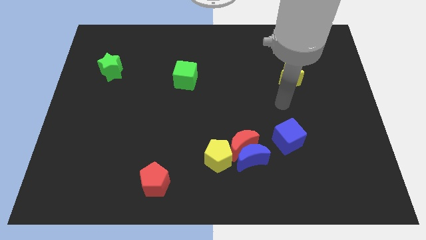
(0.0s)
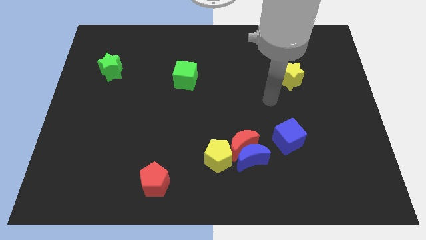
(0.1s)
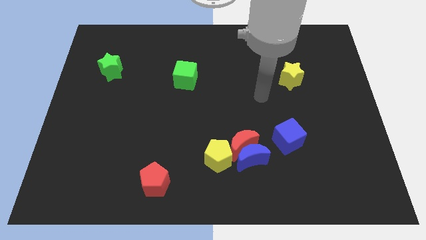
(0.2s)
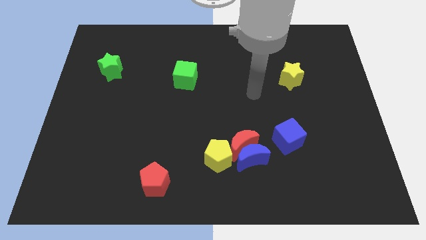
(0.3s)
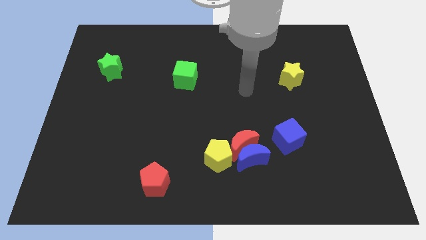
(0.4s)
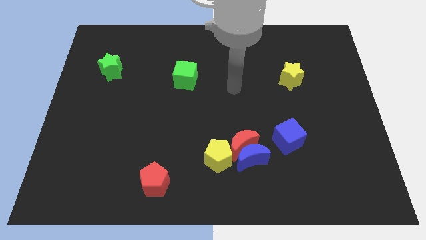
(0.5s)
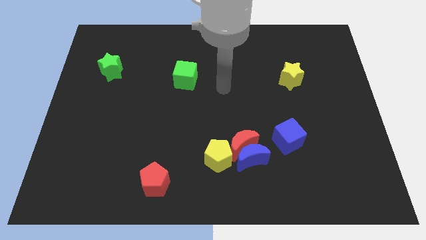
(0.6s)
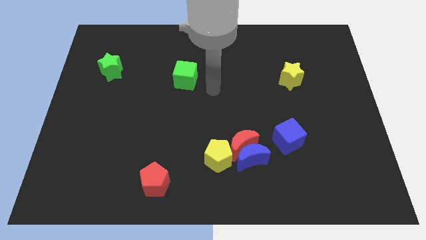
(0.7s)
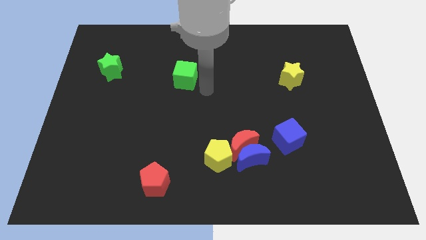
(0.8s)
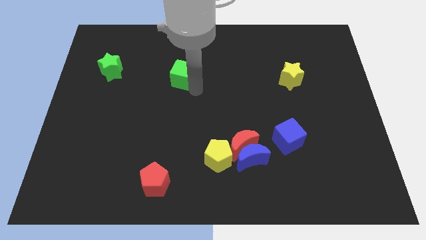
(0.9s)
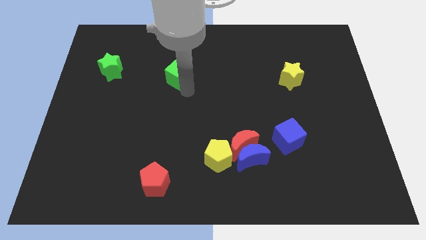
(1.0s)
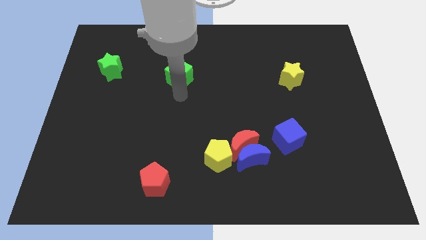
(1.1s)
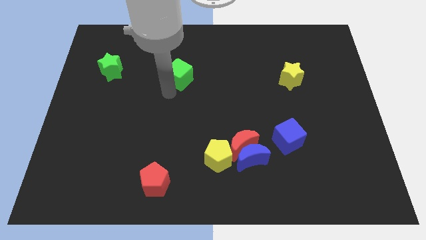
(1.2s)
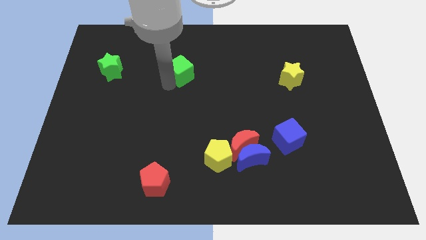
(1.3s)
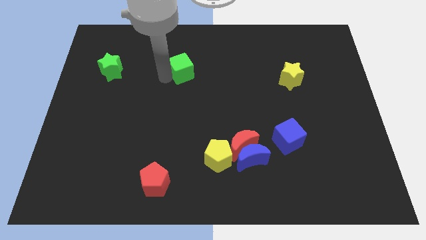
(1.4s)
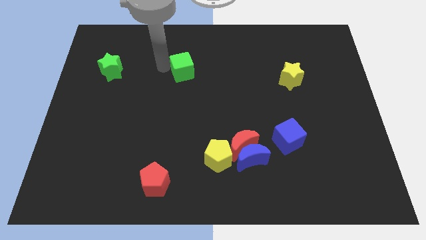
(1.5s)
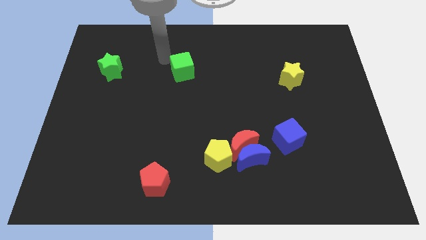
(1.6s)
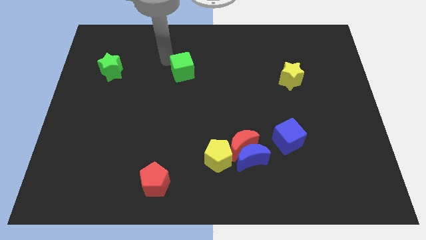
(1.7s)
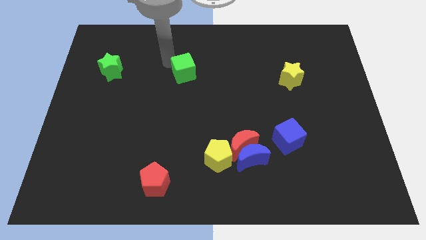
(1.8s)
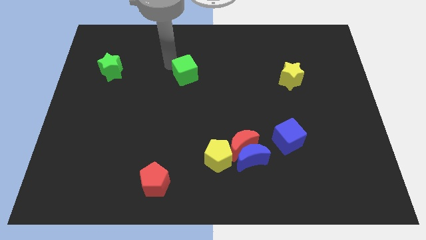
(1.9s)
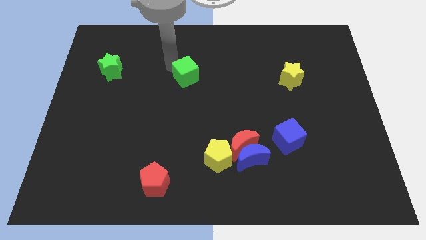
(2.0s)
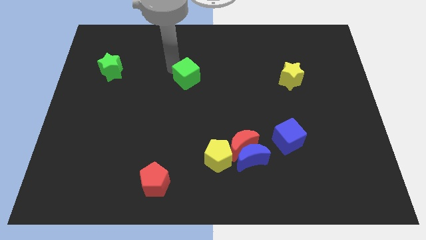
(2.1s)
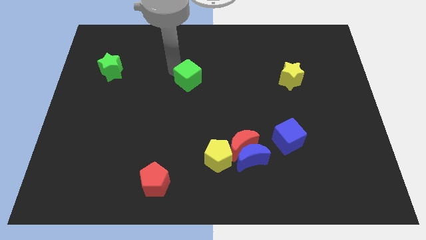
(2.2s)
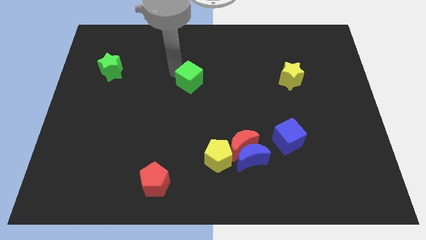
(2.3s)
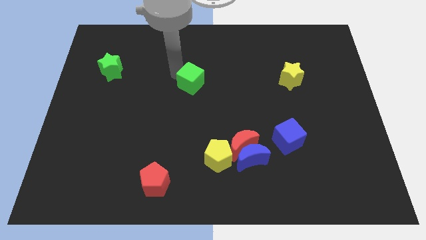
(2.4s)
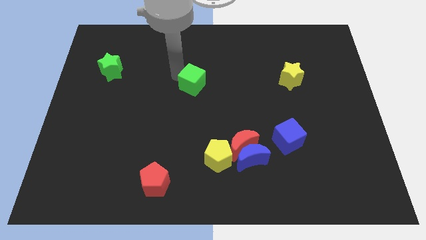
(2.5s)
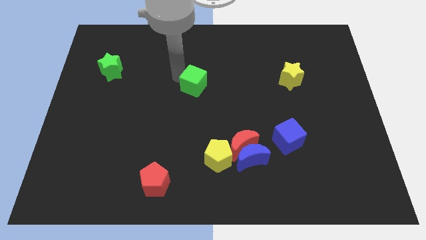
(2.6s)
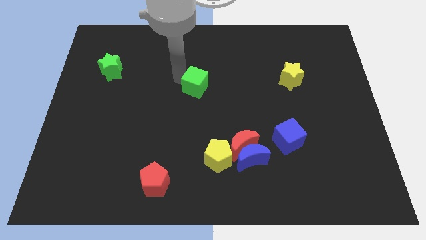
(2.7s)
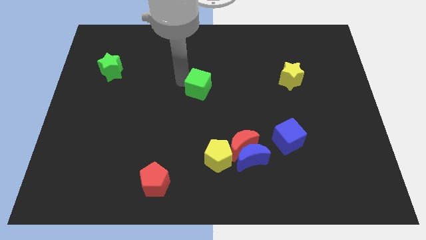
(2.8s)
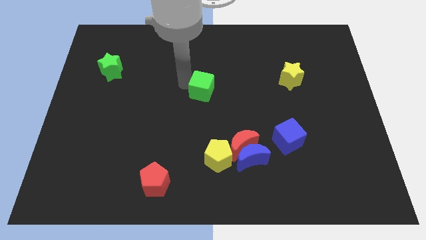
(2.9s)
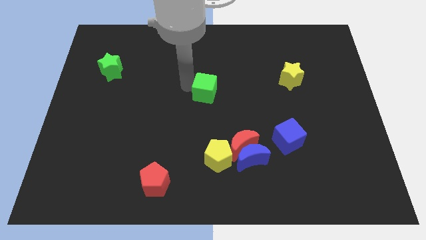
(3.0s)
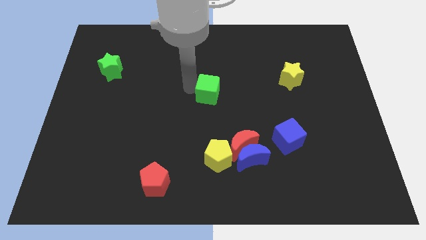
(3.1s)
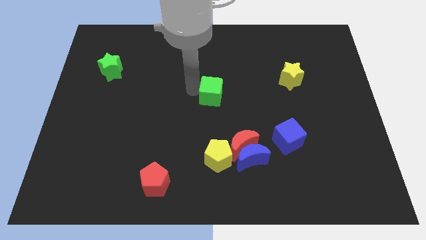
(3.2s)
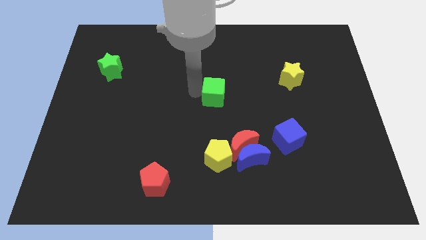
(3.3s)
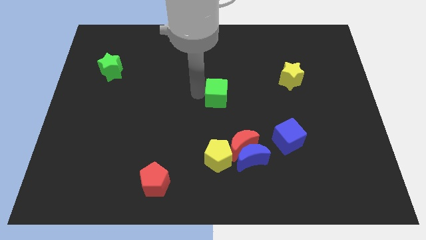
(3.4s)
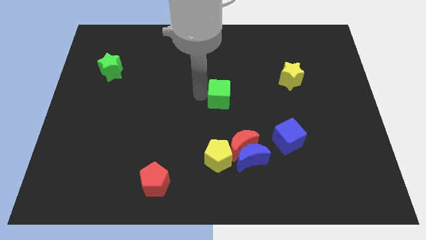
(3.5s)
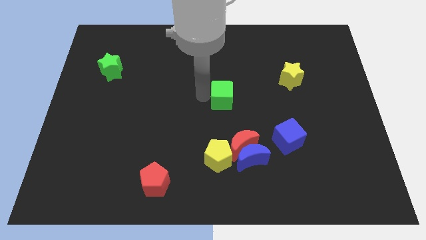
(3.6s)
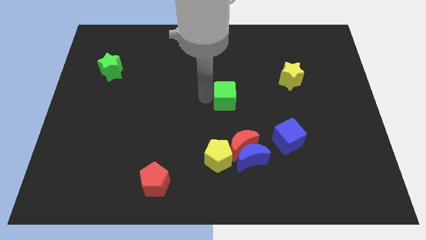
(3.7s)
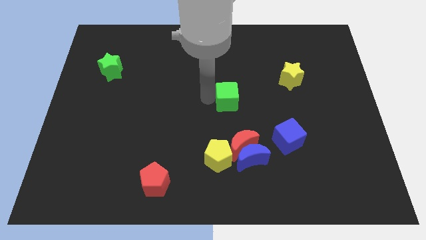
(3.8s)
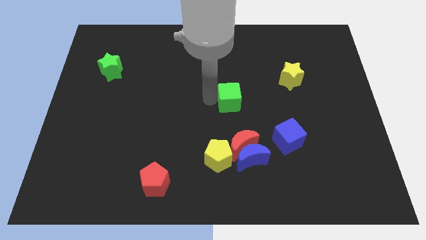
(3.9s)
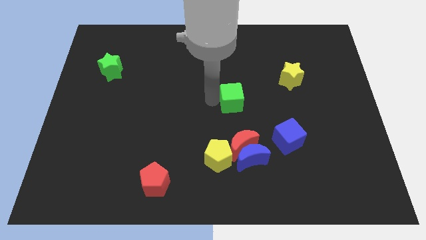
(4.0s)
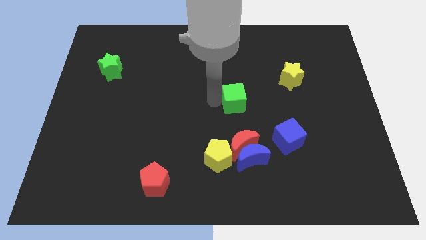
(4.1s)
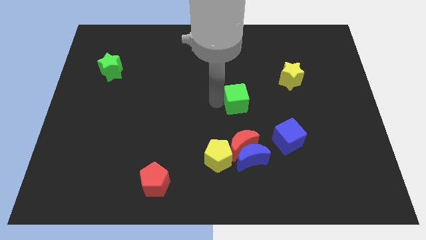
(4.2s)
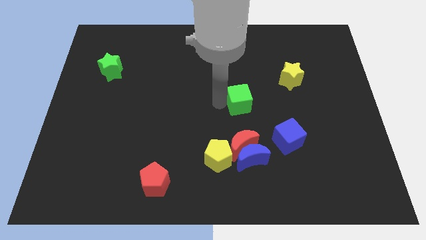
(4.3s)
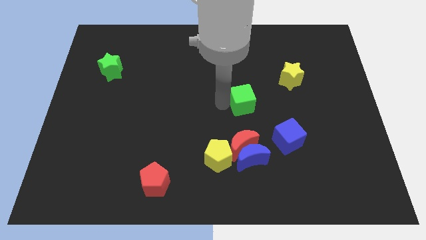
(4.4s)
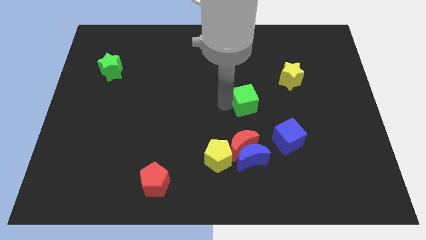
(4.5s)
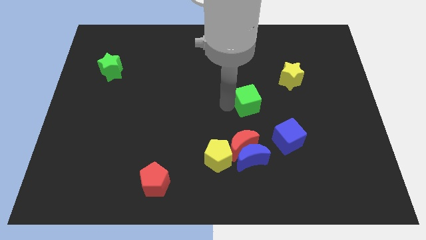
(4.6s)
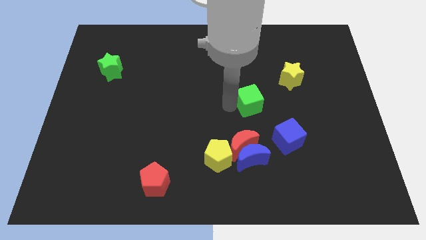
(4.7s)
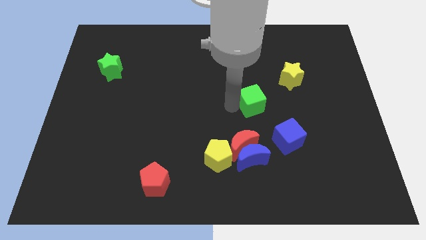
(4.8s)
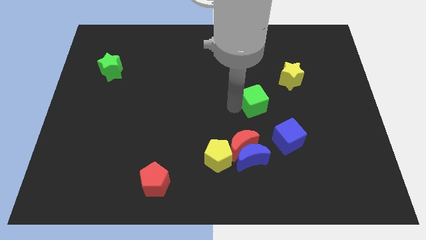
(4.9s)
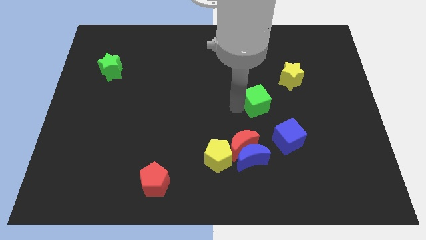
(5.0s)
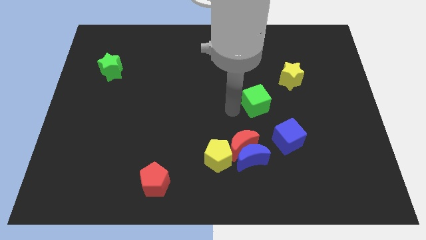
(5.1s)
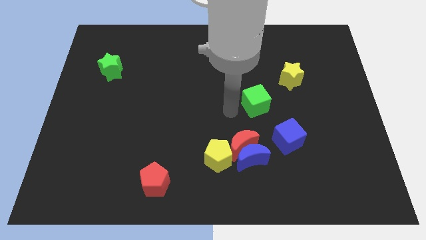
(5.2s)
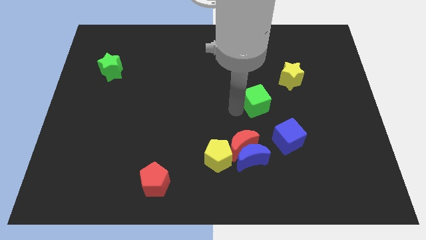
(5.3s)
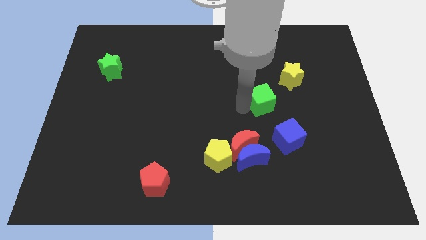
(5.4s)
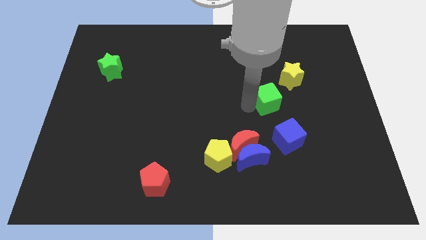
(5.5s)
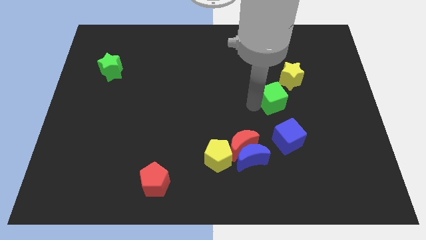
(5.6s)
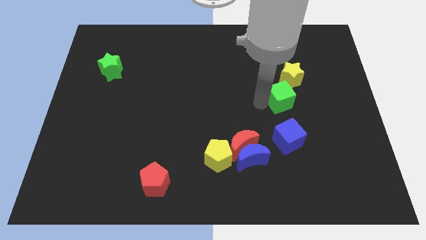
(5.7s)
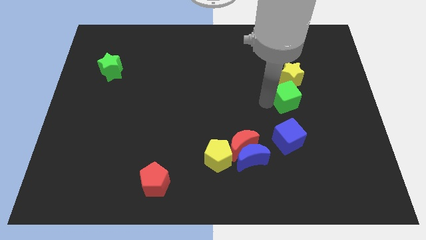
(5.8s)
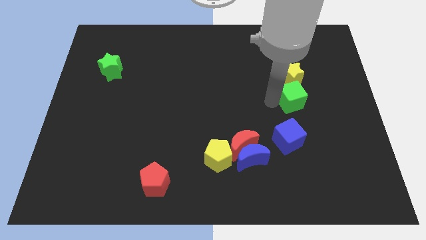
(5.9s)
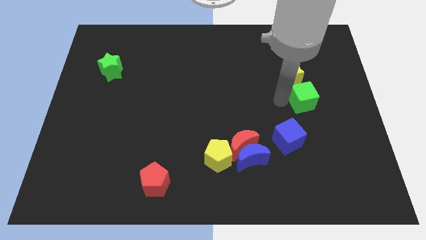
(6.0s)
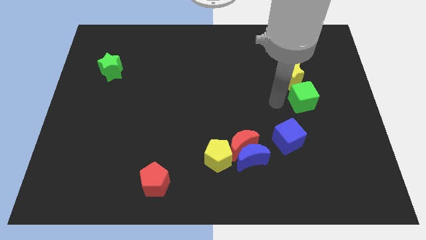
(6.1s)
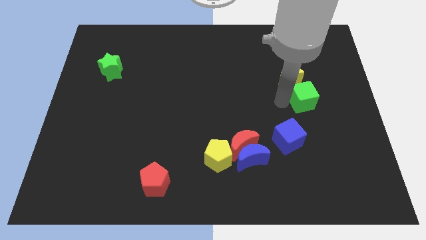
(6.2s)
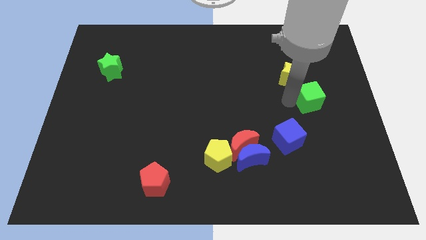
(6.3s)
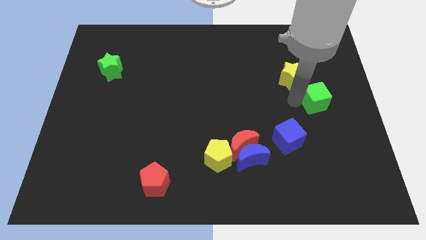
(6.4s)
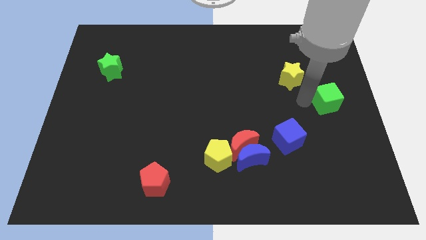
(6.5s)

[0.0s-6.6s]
slide the green cube to the center right
